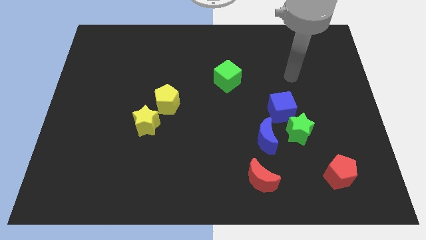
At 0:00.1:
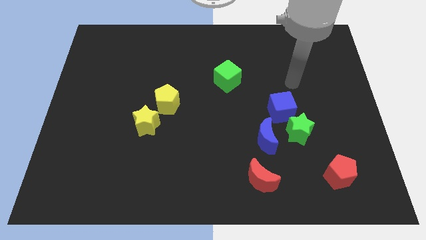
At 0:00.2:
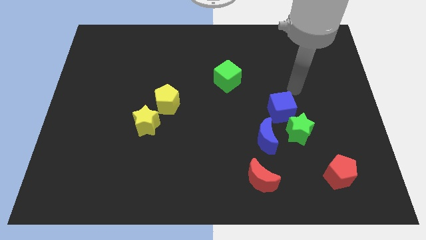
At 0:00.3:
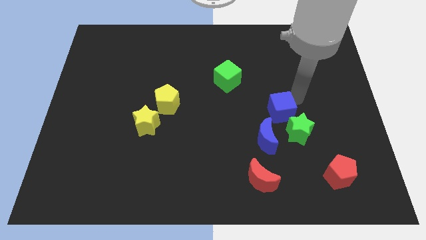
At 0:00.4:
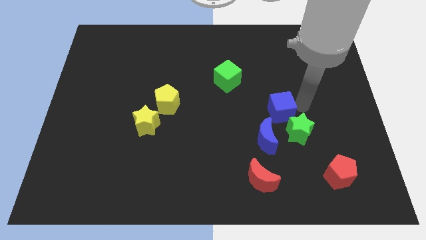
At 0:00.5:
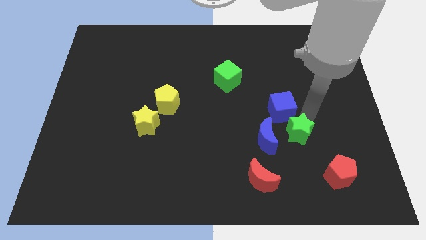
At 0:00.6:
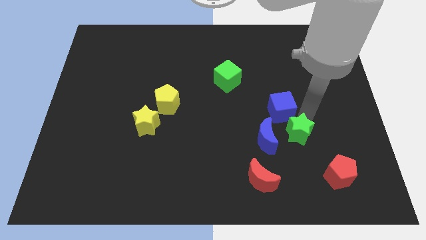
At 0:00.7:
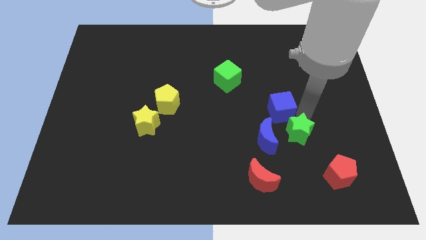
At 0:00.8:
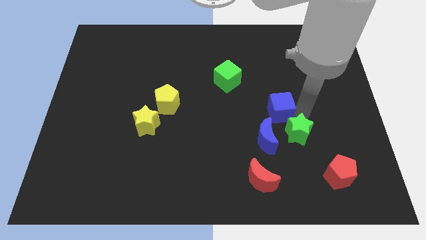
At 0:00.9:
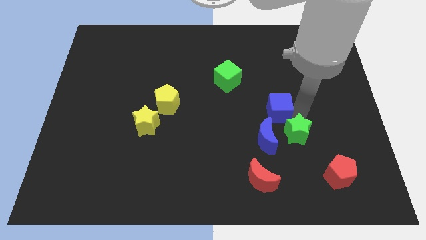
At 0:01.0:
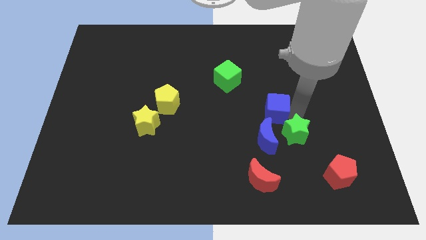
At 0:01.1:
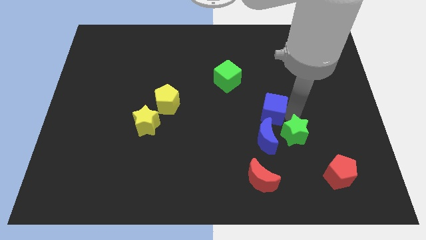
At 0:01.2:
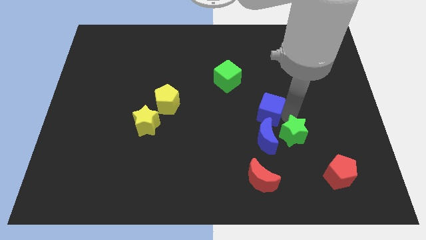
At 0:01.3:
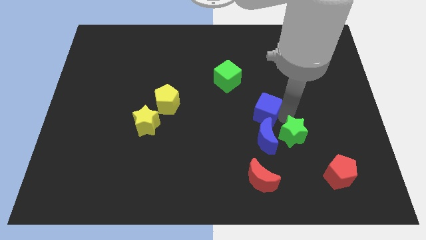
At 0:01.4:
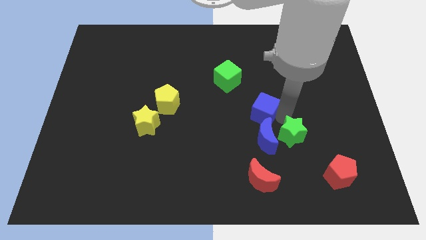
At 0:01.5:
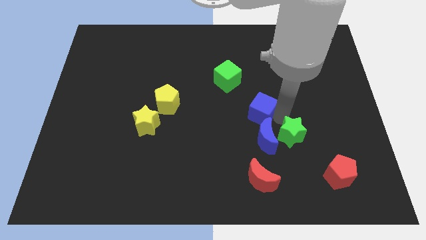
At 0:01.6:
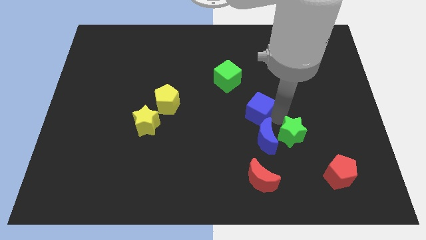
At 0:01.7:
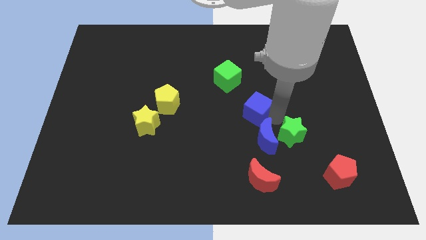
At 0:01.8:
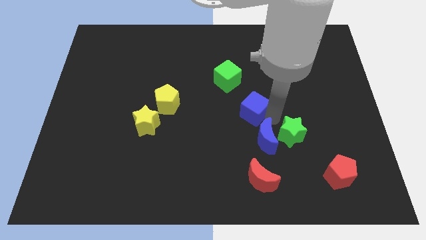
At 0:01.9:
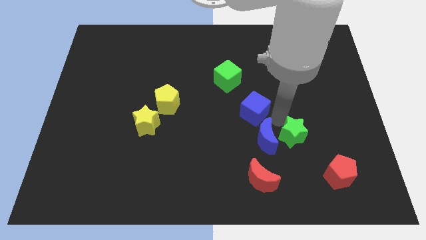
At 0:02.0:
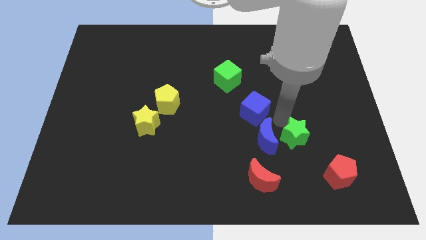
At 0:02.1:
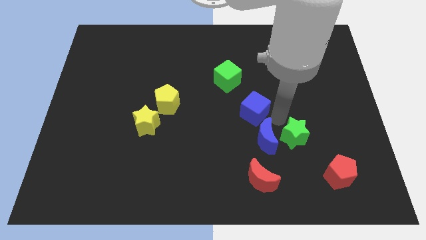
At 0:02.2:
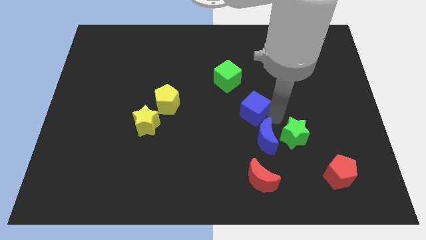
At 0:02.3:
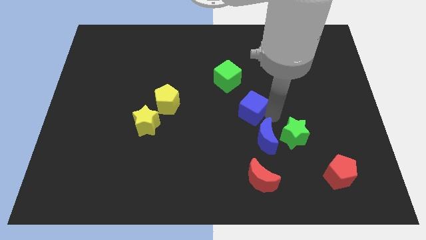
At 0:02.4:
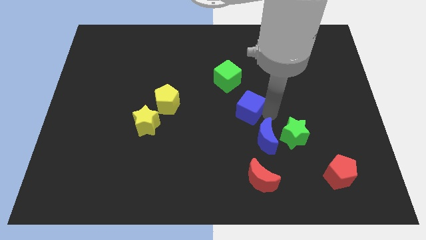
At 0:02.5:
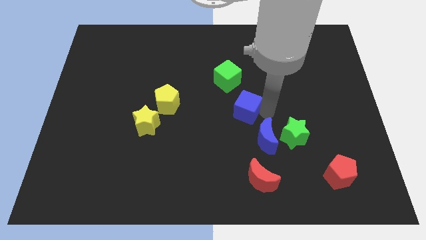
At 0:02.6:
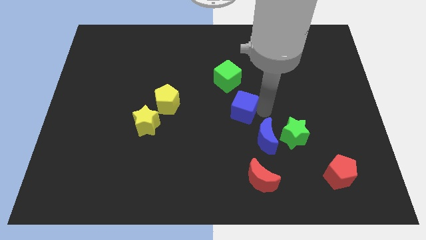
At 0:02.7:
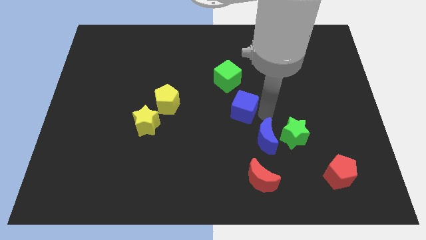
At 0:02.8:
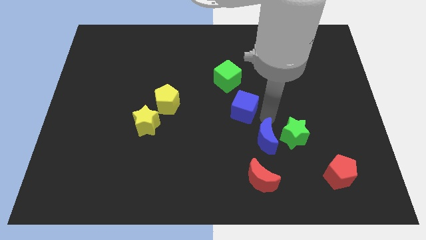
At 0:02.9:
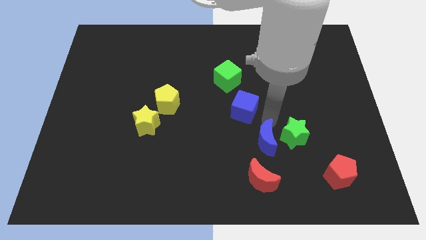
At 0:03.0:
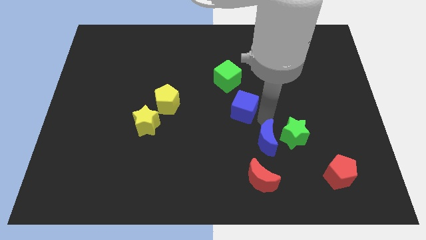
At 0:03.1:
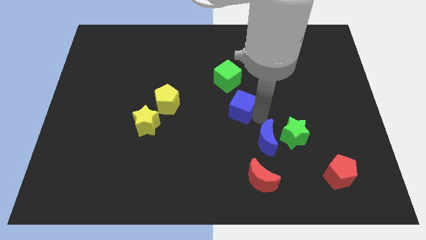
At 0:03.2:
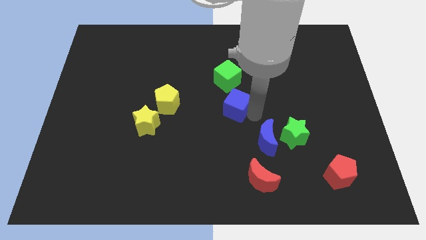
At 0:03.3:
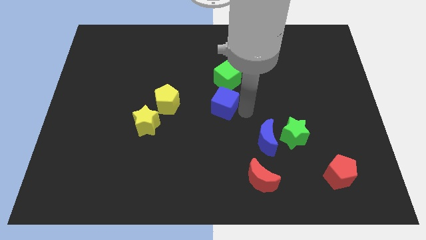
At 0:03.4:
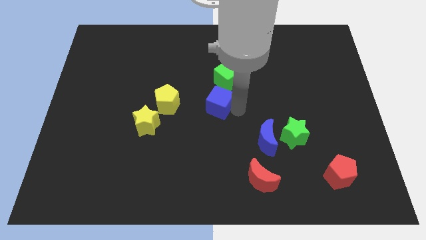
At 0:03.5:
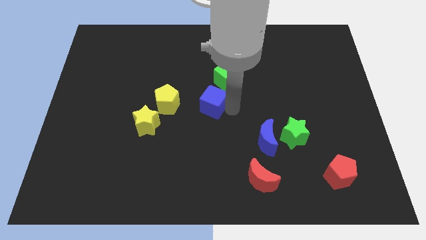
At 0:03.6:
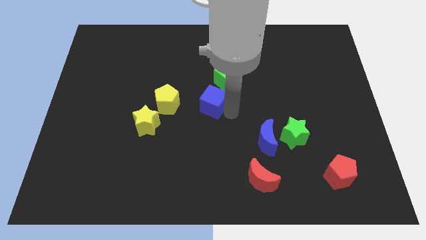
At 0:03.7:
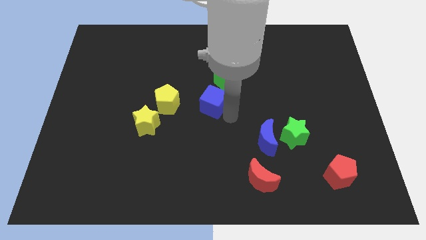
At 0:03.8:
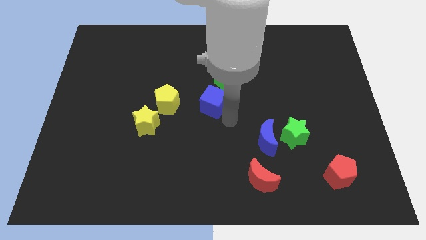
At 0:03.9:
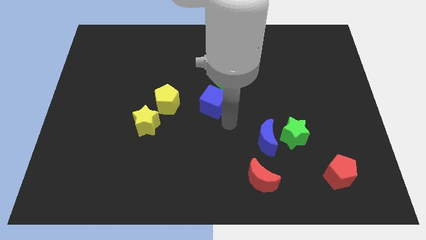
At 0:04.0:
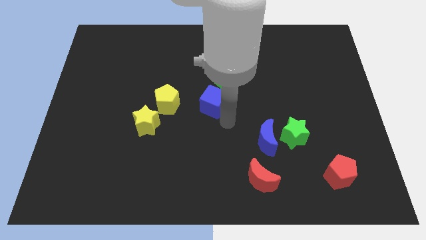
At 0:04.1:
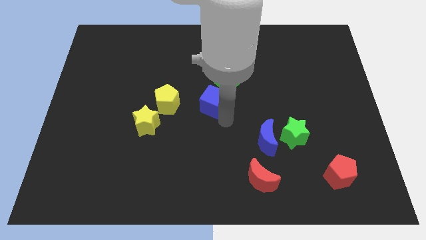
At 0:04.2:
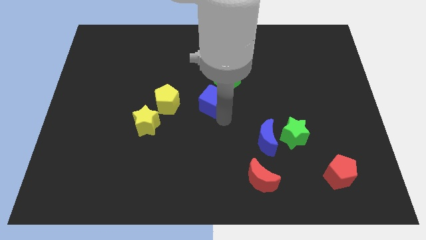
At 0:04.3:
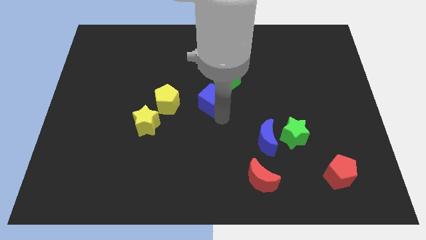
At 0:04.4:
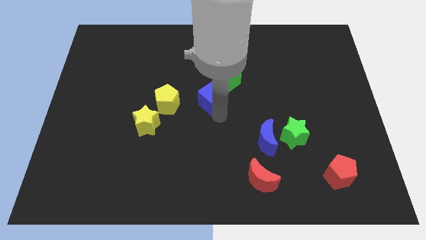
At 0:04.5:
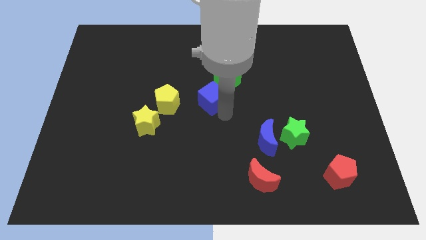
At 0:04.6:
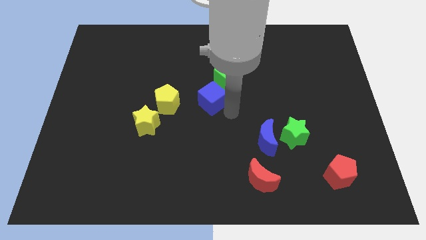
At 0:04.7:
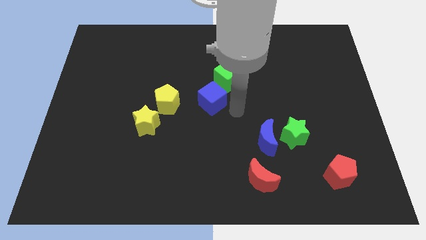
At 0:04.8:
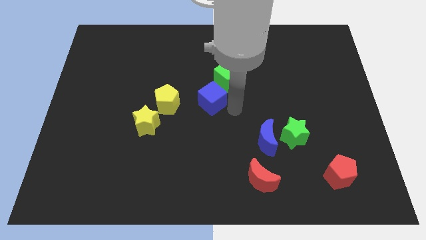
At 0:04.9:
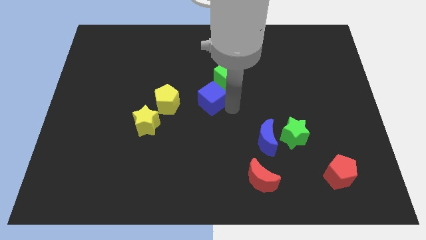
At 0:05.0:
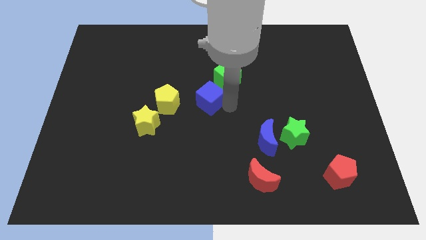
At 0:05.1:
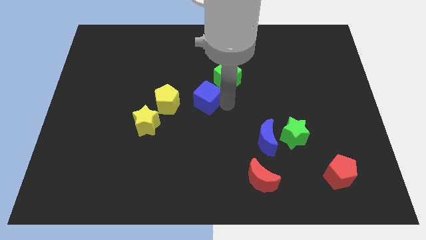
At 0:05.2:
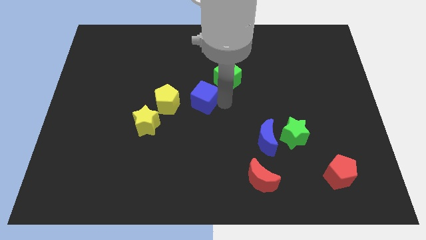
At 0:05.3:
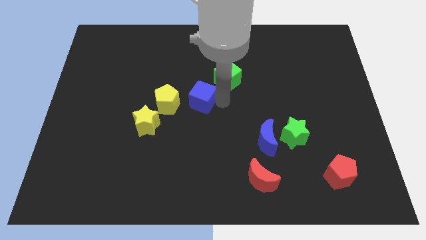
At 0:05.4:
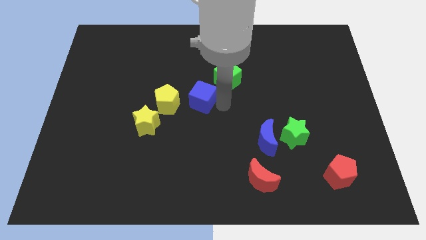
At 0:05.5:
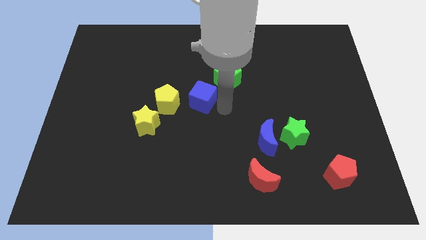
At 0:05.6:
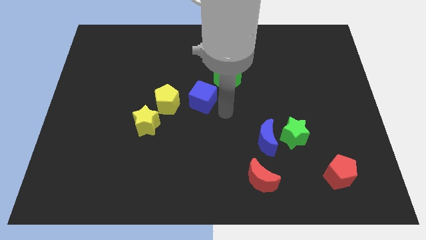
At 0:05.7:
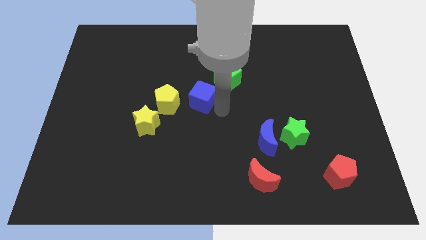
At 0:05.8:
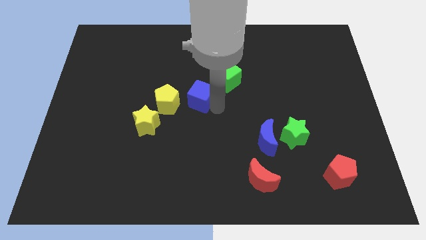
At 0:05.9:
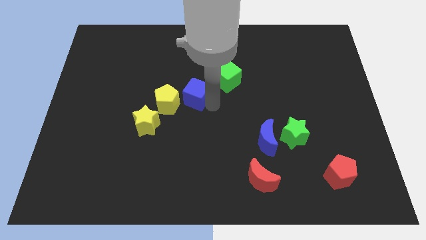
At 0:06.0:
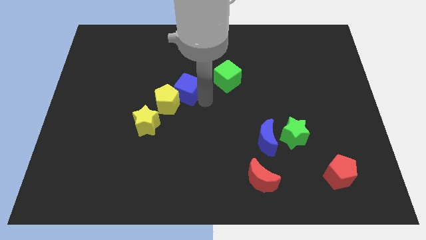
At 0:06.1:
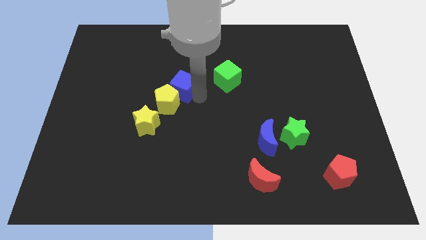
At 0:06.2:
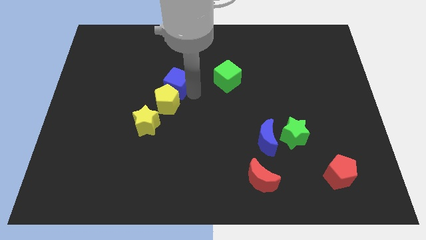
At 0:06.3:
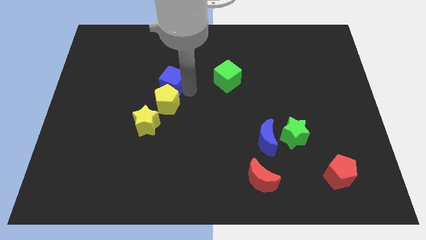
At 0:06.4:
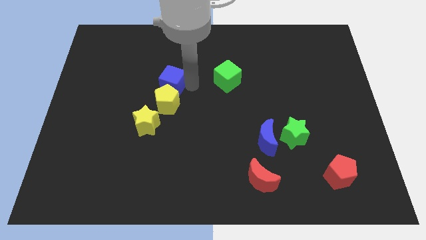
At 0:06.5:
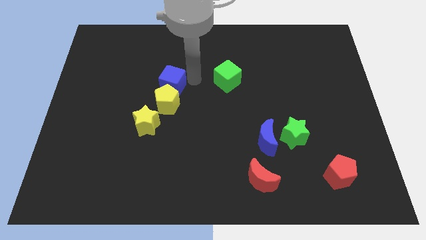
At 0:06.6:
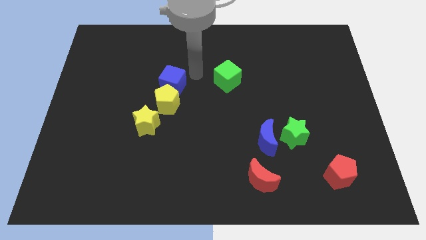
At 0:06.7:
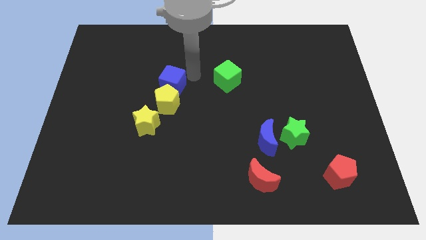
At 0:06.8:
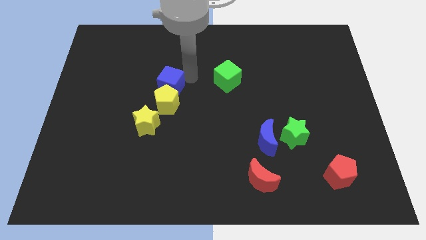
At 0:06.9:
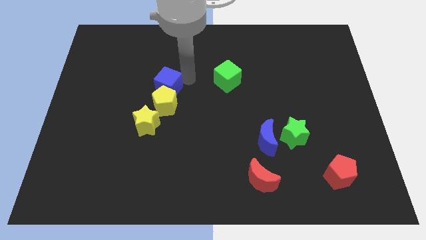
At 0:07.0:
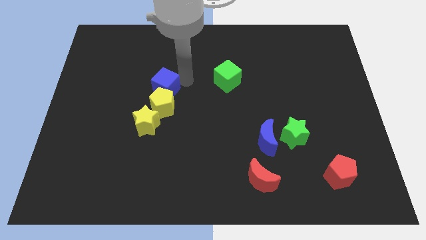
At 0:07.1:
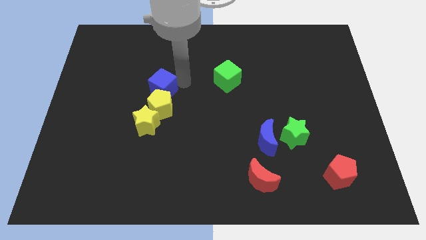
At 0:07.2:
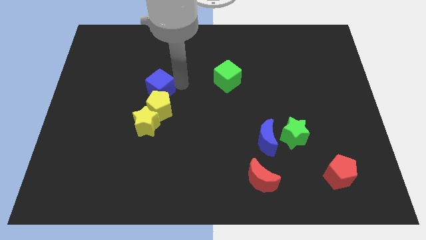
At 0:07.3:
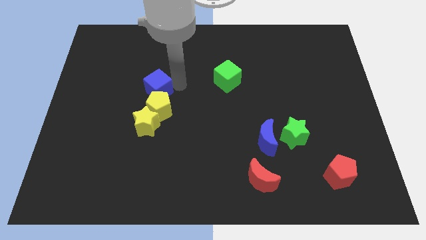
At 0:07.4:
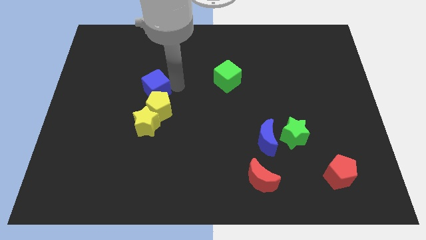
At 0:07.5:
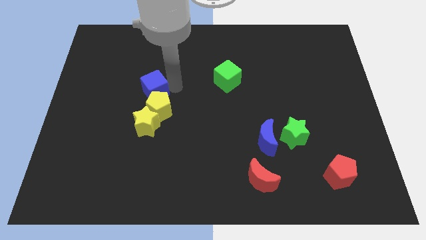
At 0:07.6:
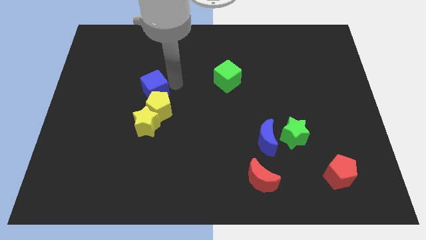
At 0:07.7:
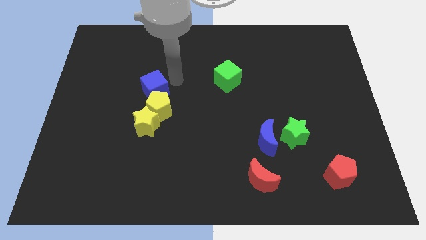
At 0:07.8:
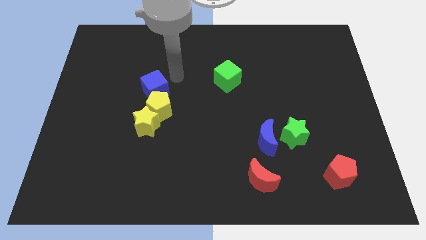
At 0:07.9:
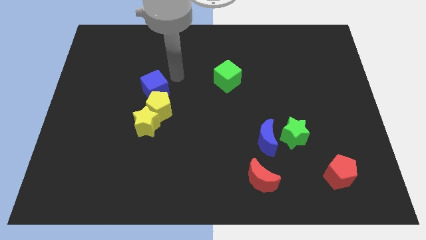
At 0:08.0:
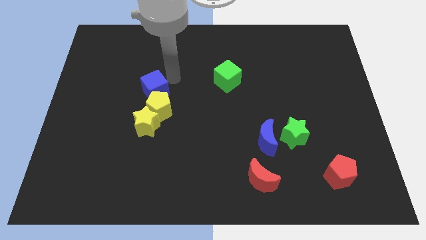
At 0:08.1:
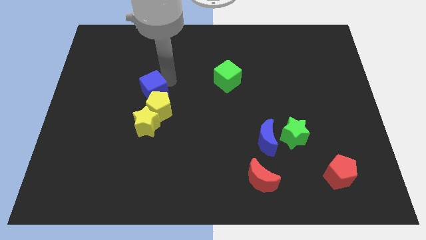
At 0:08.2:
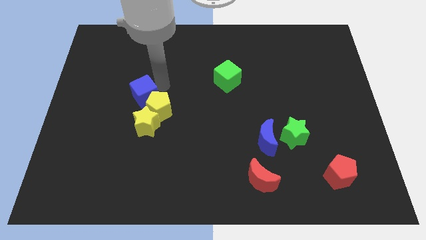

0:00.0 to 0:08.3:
slide the blue cube to the left side of the yellow pentagon
